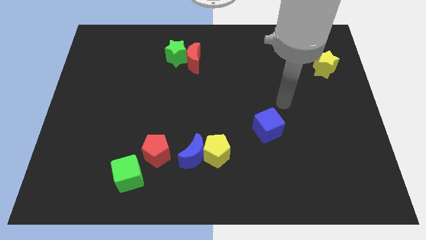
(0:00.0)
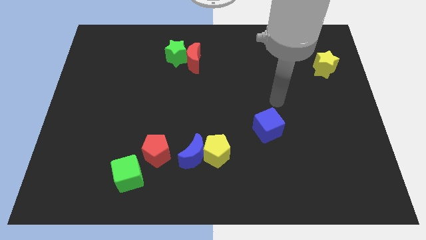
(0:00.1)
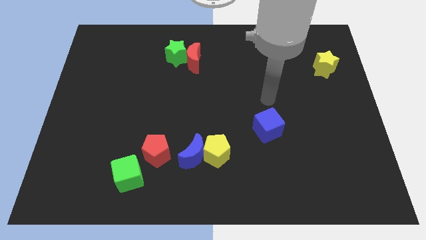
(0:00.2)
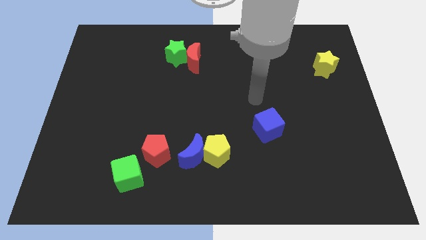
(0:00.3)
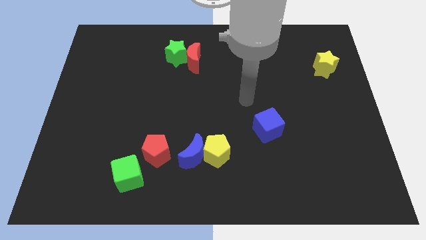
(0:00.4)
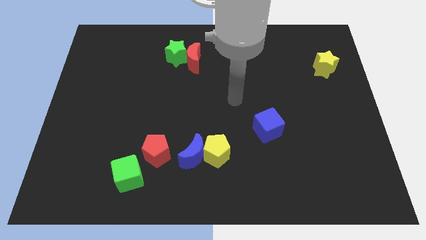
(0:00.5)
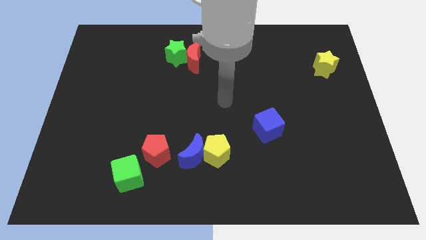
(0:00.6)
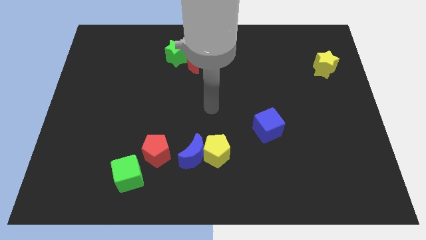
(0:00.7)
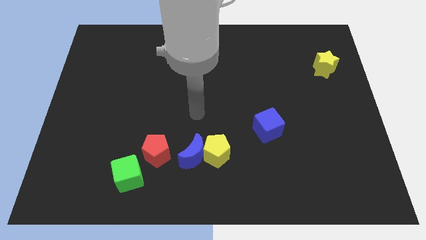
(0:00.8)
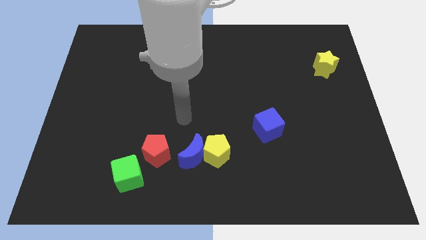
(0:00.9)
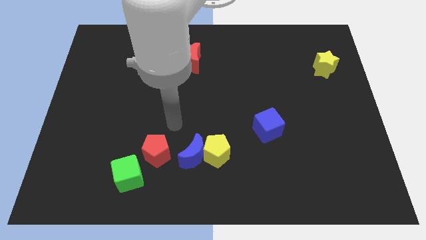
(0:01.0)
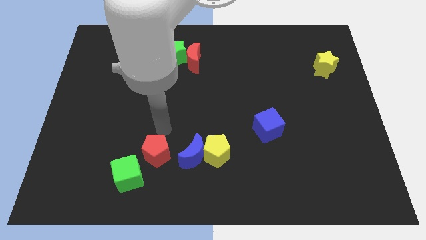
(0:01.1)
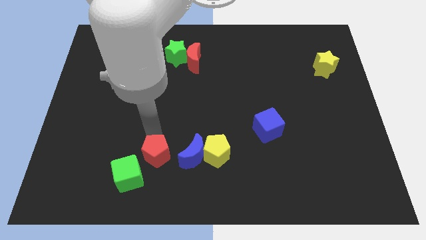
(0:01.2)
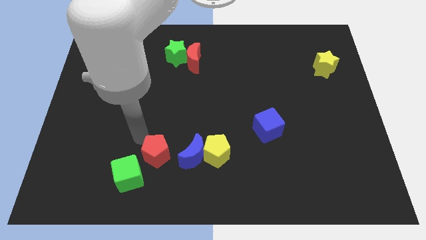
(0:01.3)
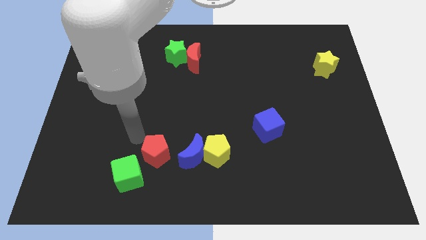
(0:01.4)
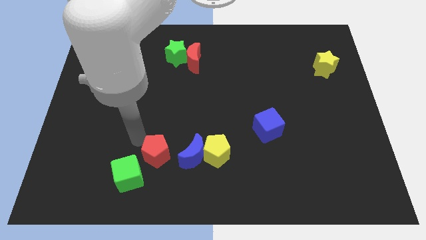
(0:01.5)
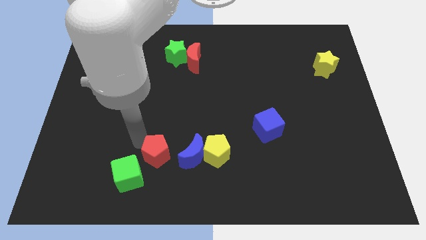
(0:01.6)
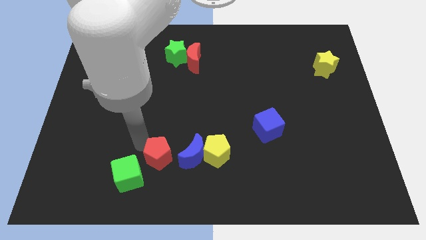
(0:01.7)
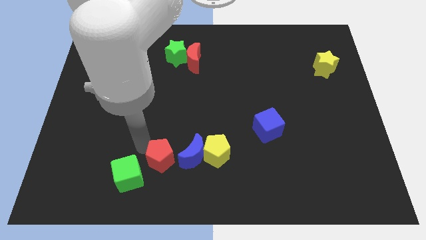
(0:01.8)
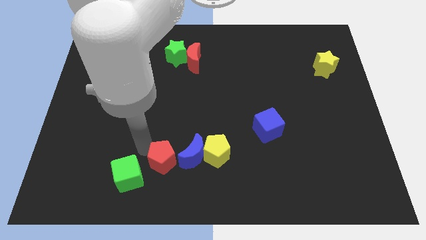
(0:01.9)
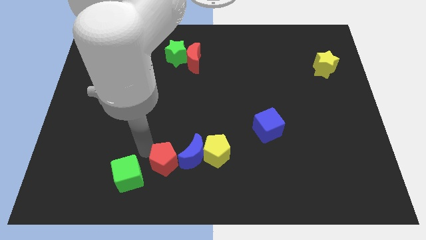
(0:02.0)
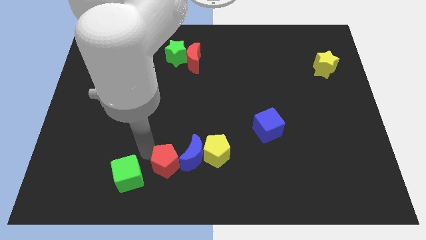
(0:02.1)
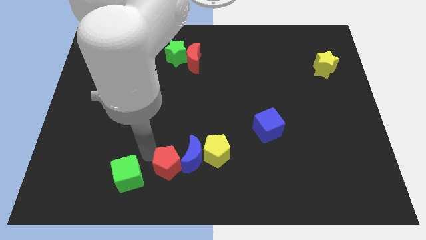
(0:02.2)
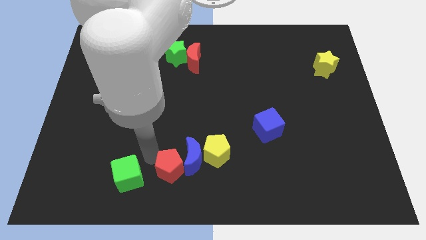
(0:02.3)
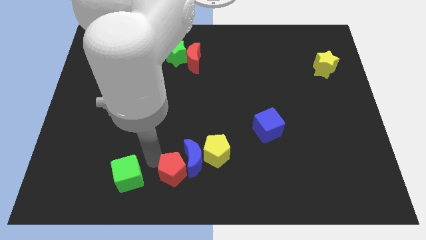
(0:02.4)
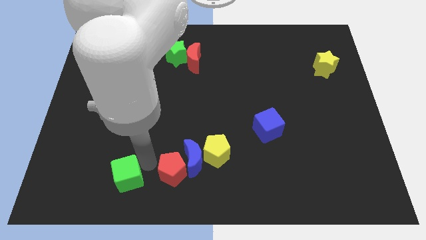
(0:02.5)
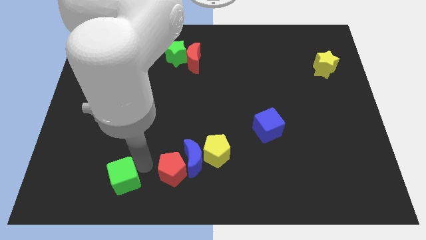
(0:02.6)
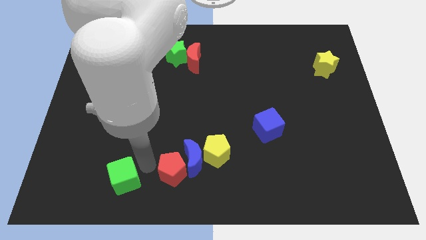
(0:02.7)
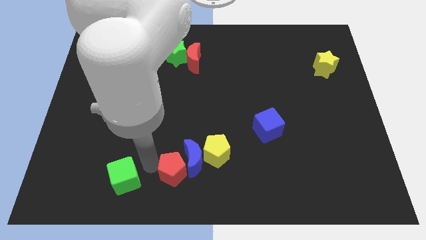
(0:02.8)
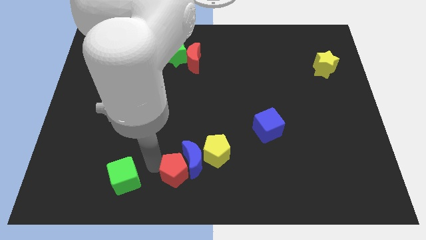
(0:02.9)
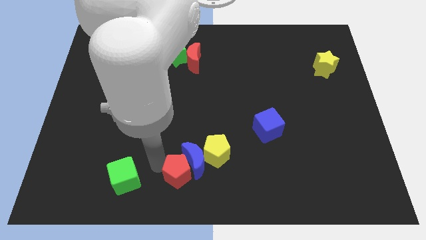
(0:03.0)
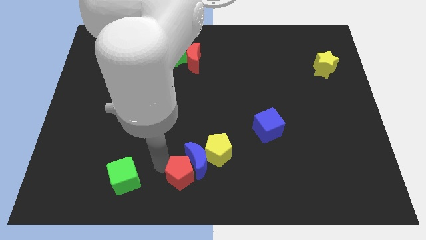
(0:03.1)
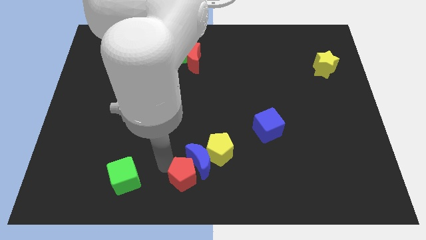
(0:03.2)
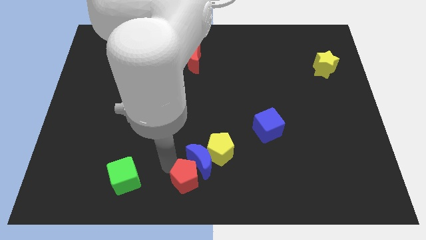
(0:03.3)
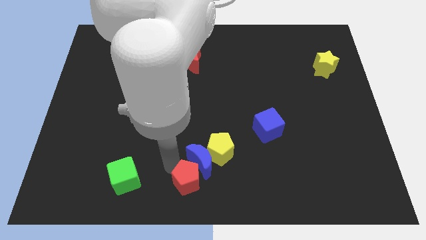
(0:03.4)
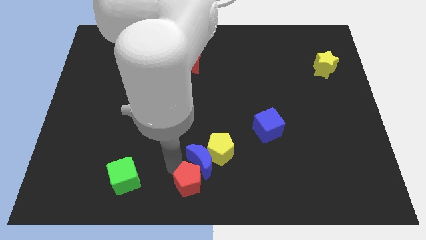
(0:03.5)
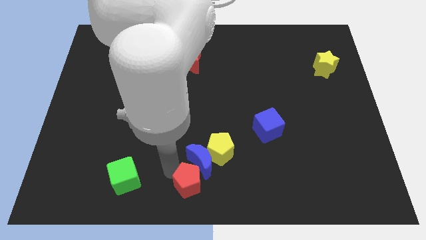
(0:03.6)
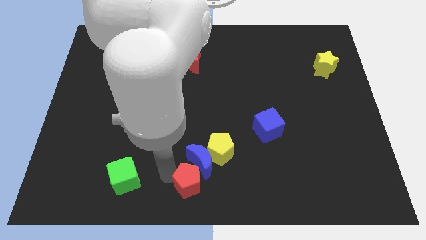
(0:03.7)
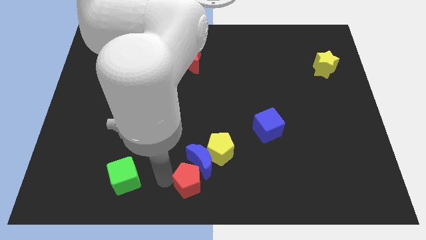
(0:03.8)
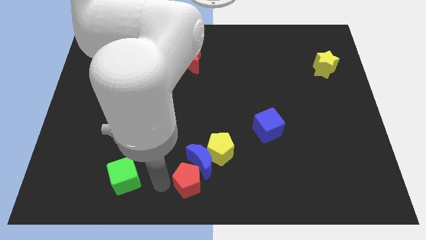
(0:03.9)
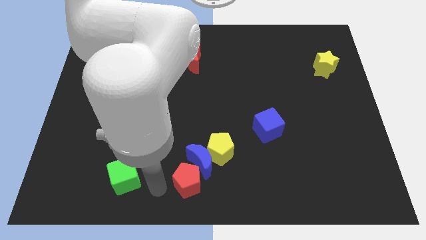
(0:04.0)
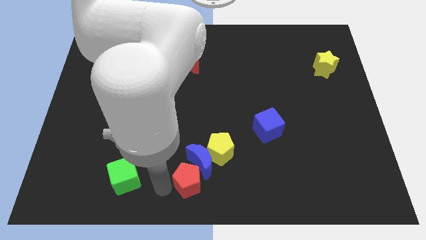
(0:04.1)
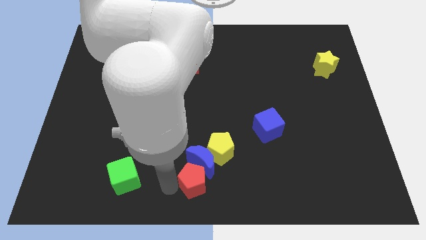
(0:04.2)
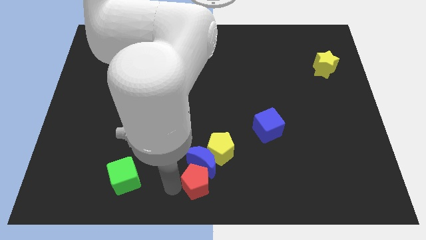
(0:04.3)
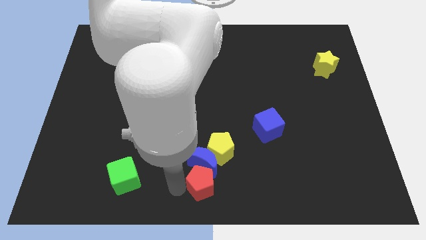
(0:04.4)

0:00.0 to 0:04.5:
slightly push the red pentagon to the right

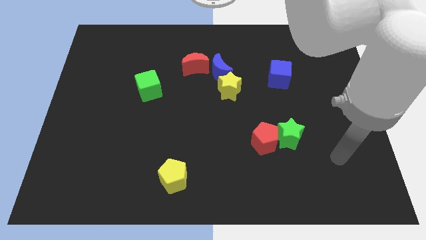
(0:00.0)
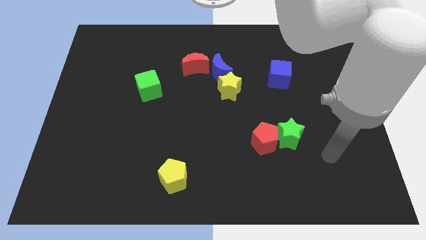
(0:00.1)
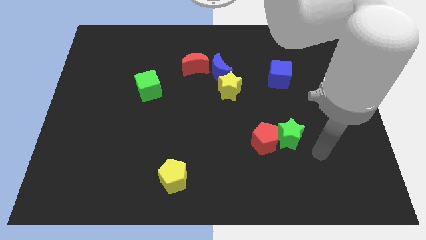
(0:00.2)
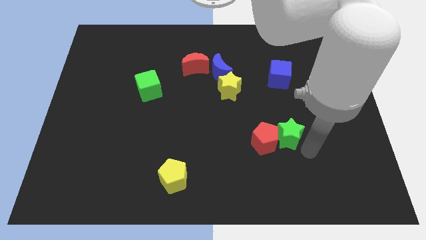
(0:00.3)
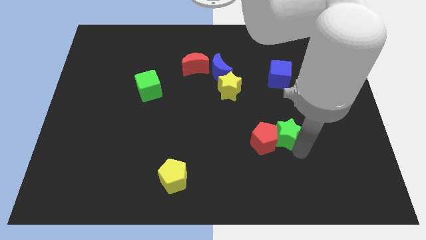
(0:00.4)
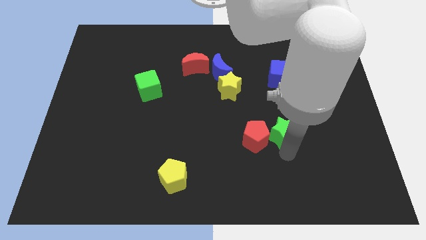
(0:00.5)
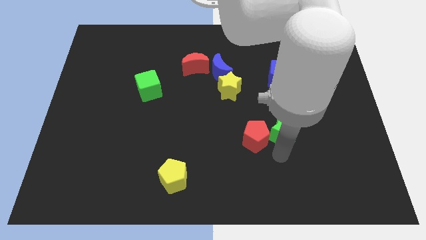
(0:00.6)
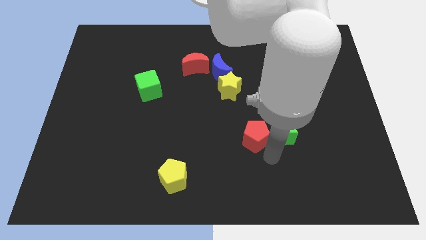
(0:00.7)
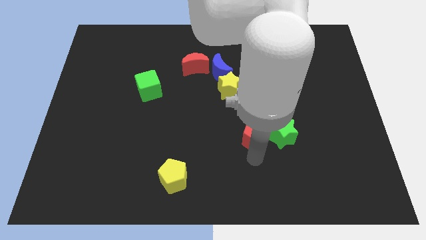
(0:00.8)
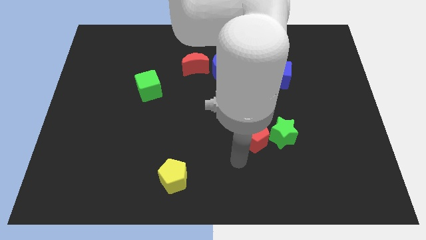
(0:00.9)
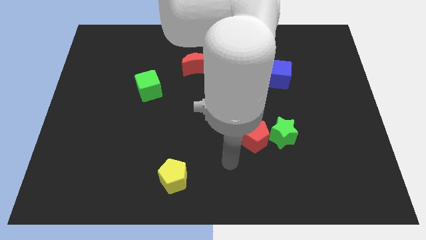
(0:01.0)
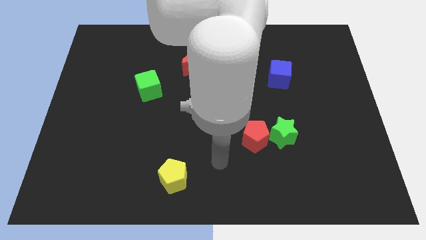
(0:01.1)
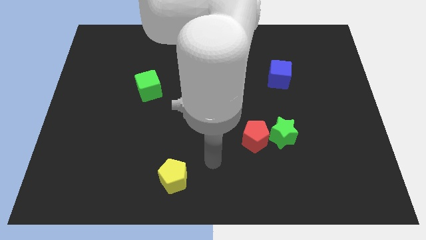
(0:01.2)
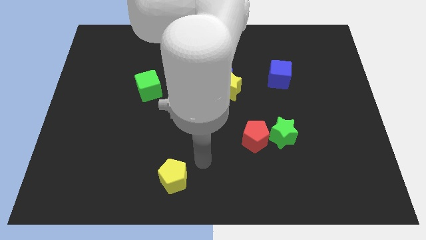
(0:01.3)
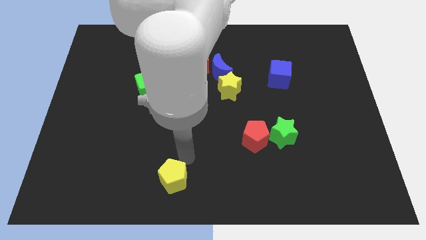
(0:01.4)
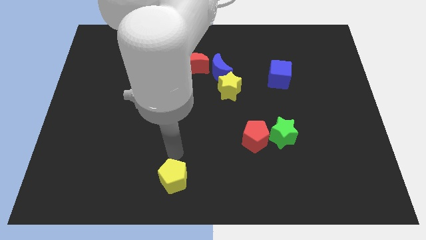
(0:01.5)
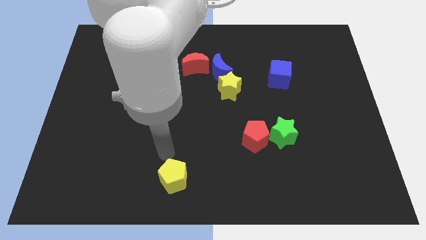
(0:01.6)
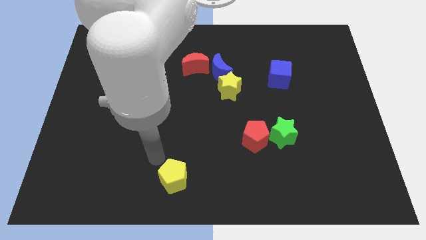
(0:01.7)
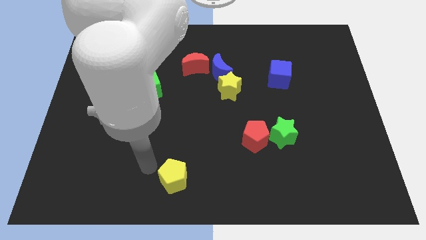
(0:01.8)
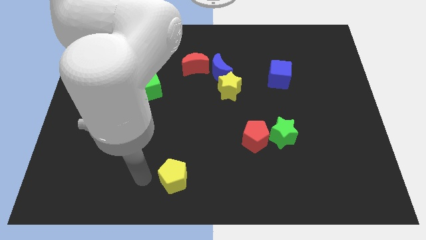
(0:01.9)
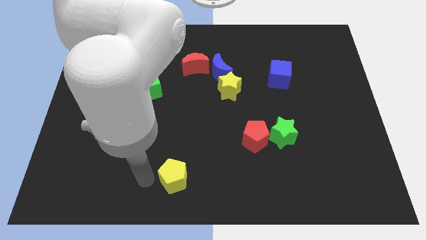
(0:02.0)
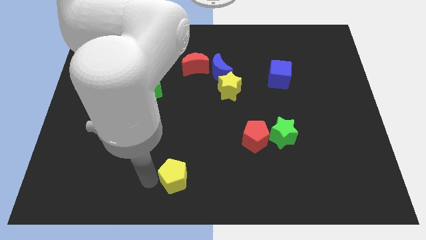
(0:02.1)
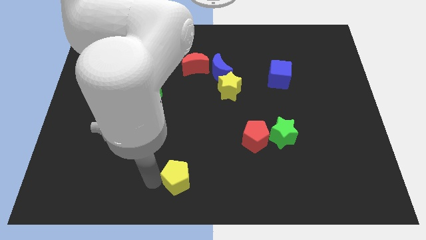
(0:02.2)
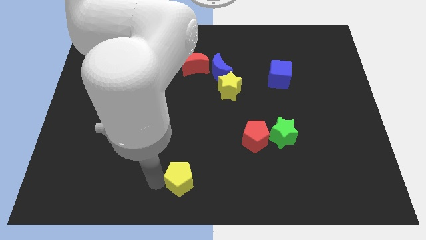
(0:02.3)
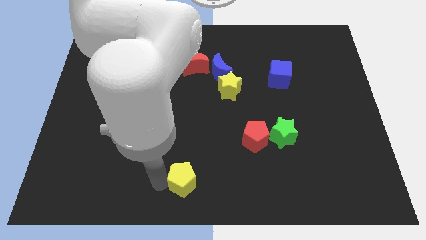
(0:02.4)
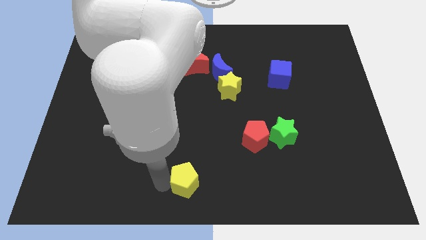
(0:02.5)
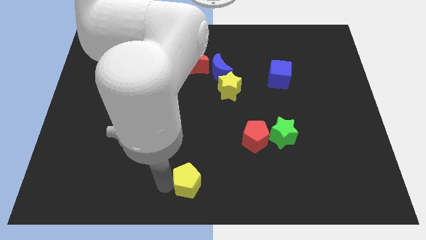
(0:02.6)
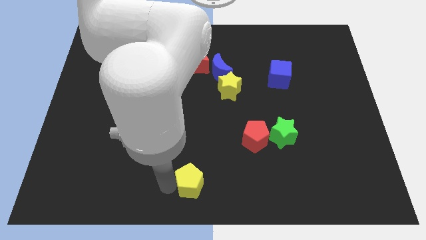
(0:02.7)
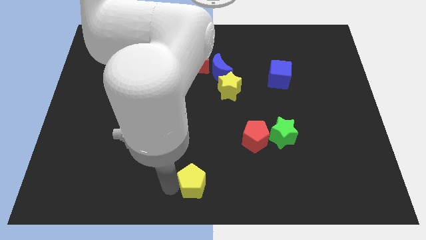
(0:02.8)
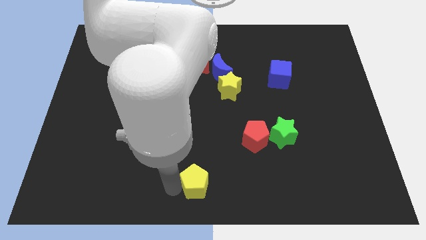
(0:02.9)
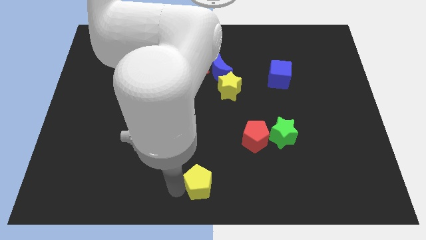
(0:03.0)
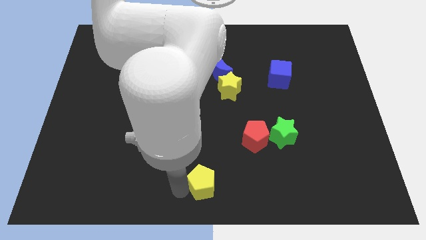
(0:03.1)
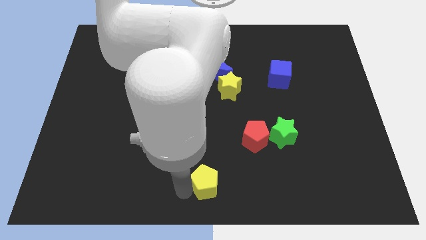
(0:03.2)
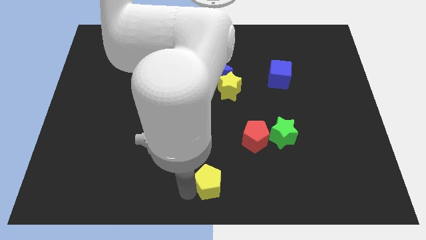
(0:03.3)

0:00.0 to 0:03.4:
slightly slide the yellow pentagon right
